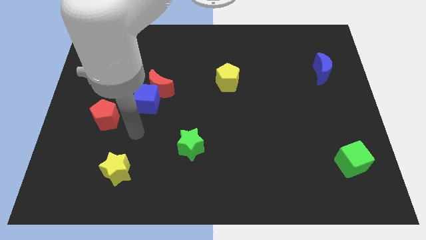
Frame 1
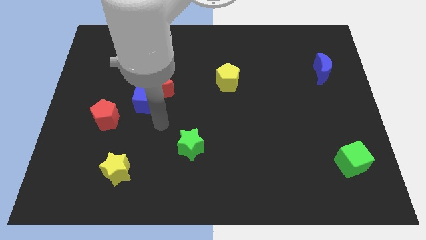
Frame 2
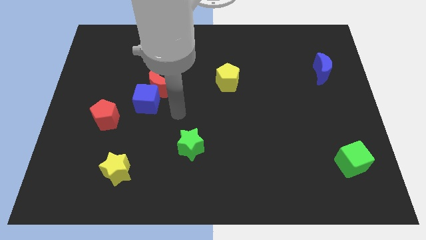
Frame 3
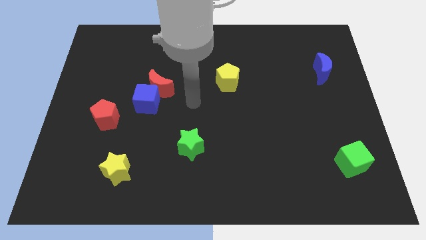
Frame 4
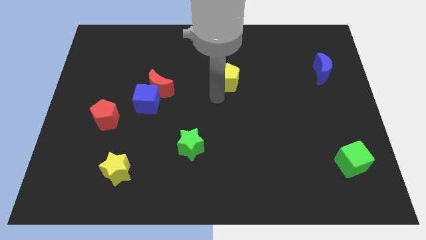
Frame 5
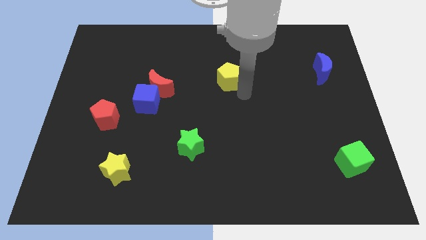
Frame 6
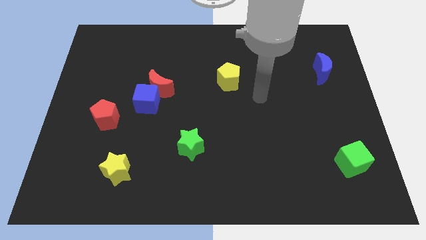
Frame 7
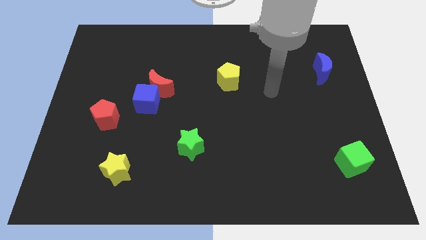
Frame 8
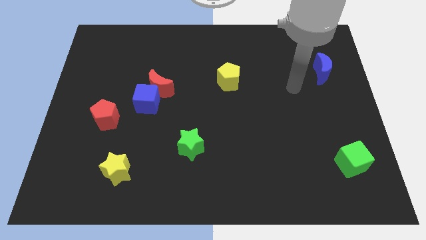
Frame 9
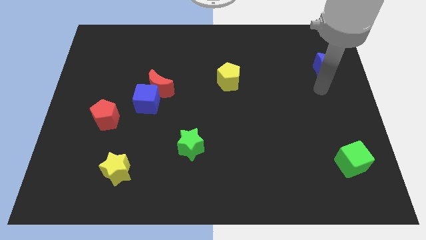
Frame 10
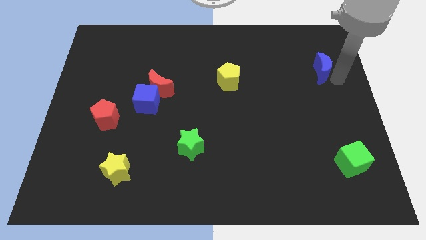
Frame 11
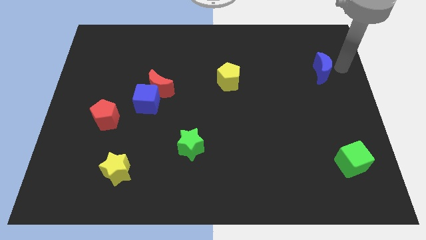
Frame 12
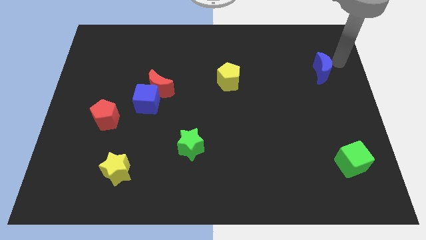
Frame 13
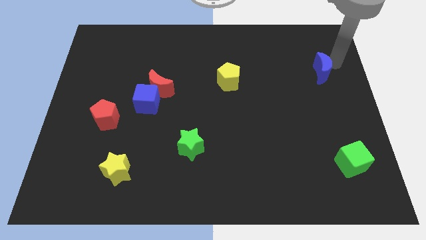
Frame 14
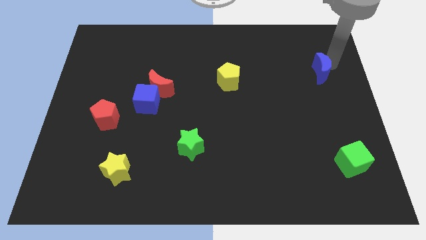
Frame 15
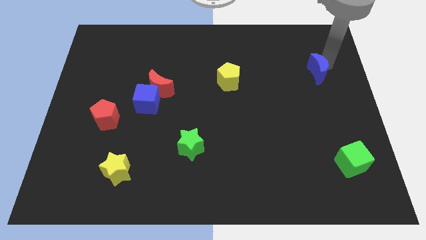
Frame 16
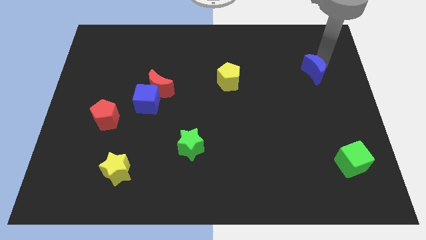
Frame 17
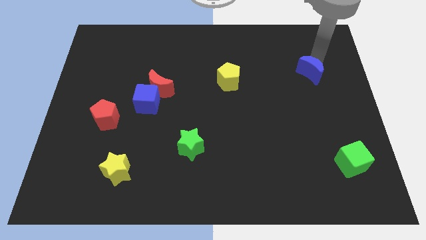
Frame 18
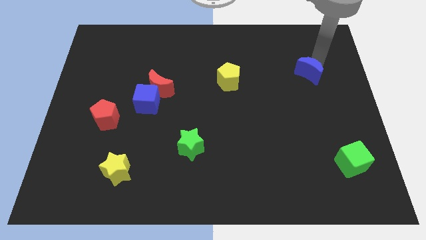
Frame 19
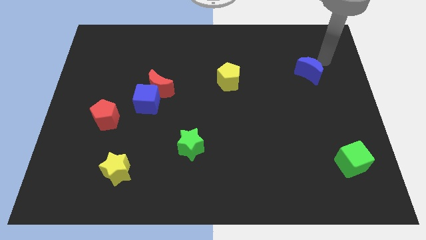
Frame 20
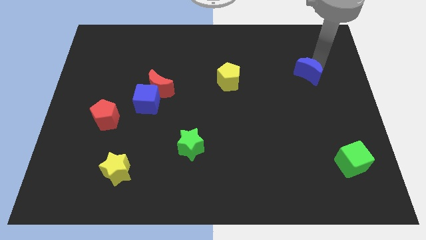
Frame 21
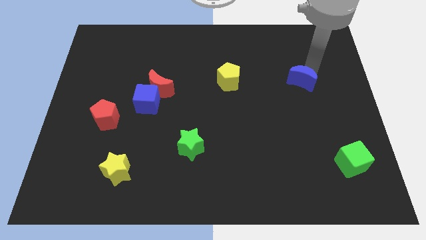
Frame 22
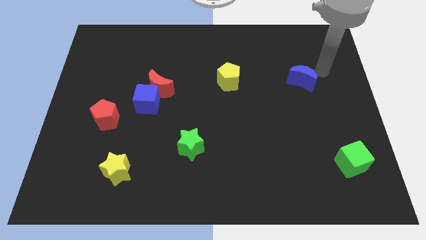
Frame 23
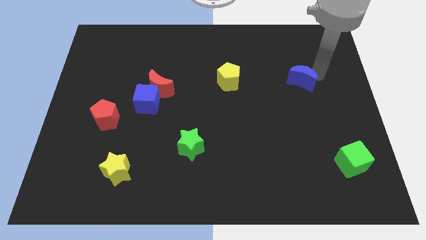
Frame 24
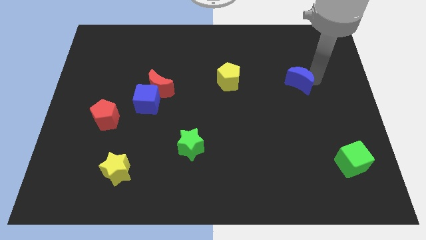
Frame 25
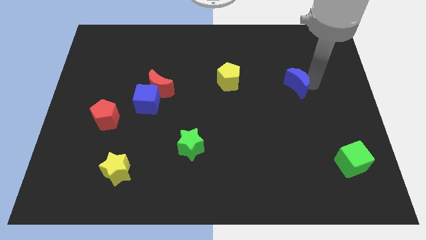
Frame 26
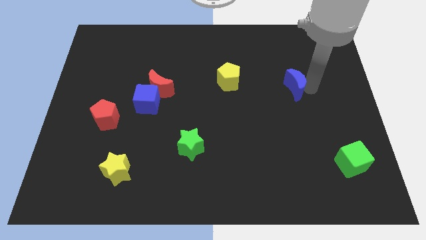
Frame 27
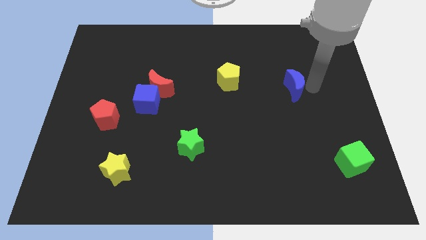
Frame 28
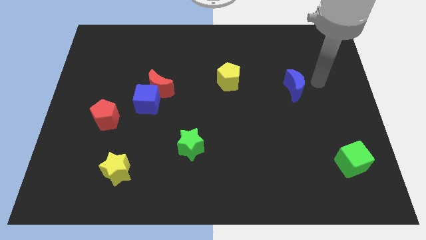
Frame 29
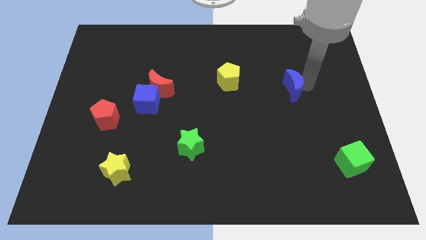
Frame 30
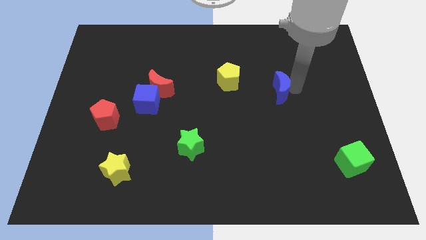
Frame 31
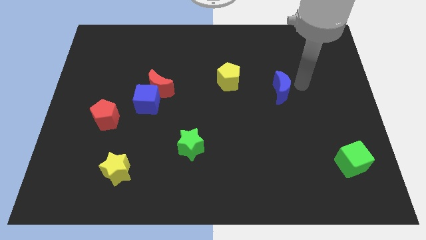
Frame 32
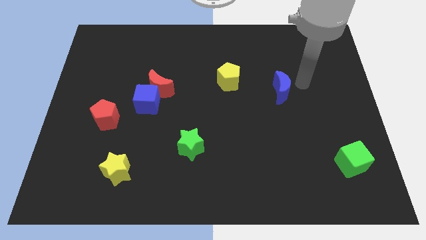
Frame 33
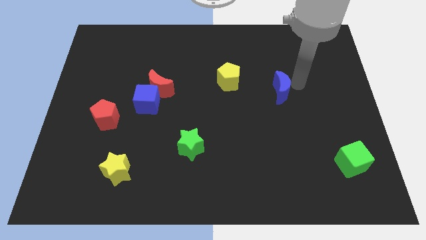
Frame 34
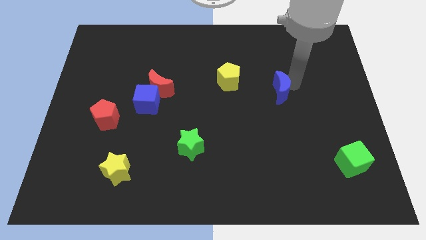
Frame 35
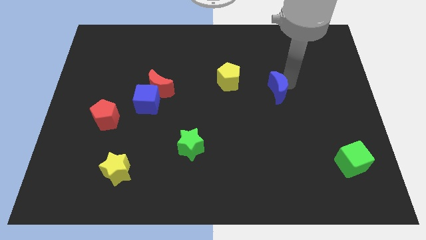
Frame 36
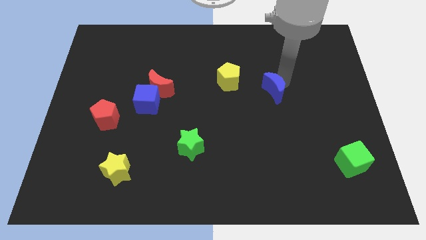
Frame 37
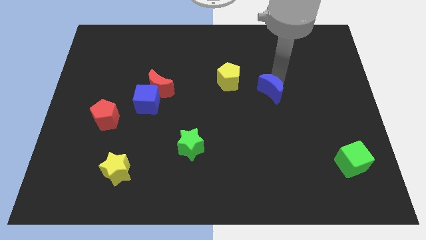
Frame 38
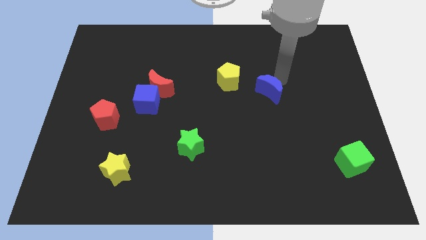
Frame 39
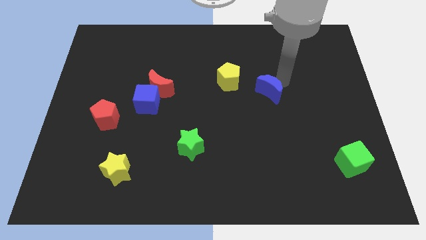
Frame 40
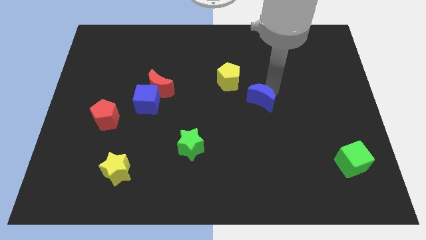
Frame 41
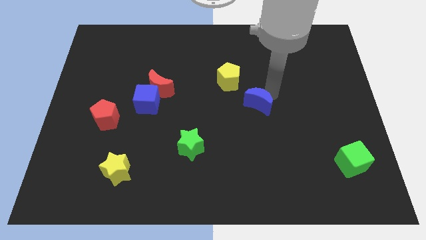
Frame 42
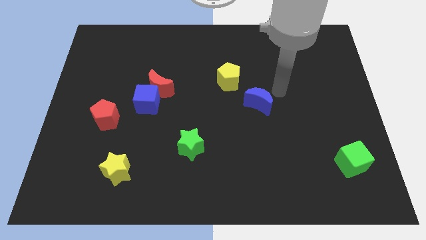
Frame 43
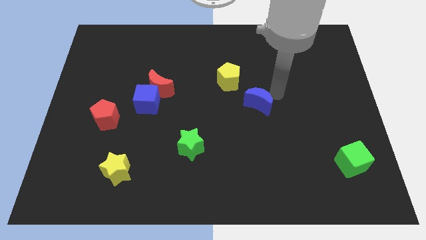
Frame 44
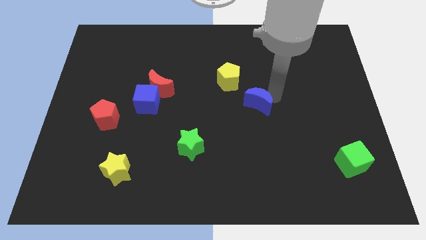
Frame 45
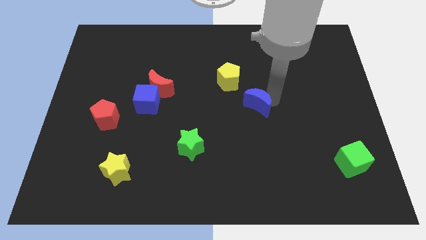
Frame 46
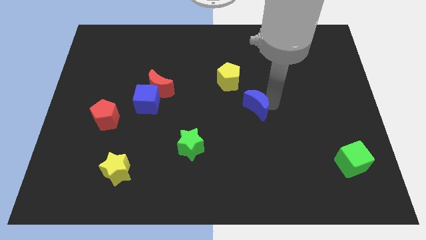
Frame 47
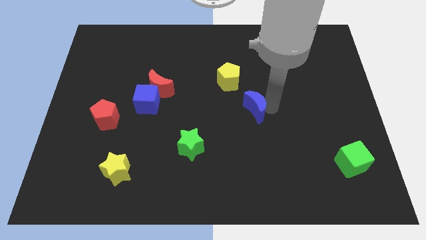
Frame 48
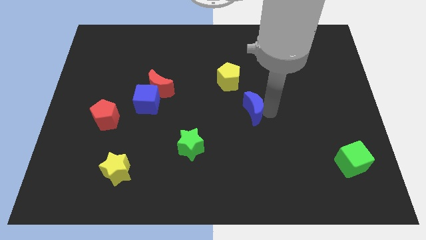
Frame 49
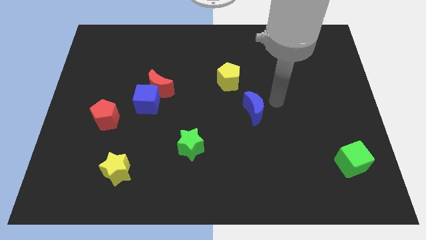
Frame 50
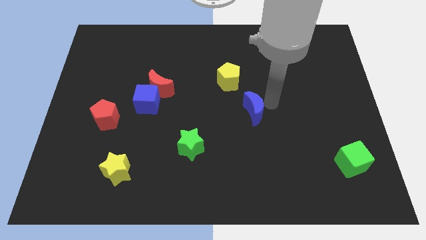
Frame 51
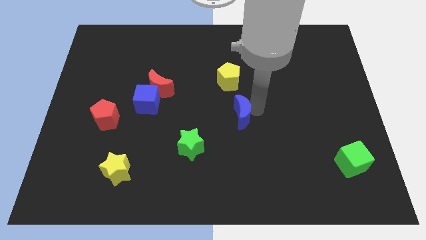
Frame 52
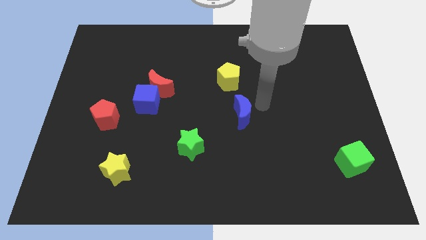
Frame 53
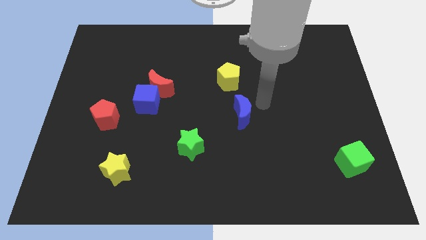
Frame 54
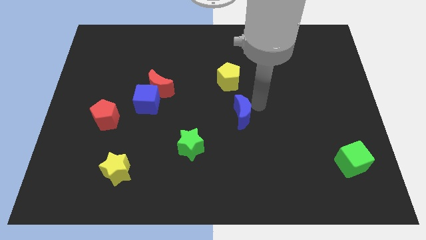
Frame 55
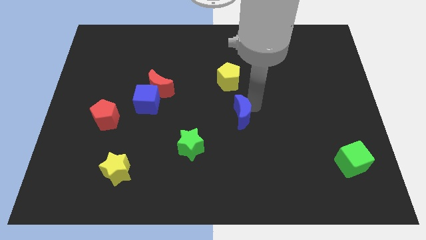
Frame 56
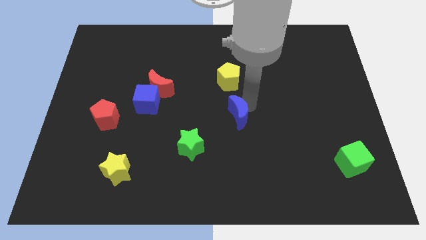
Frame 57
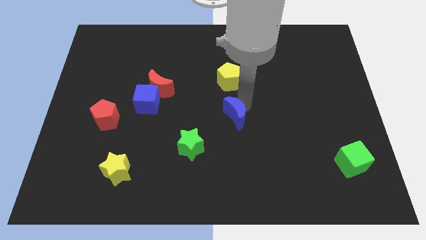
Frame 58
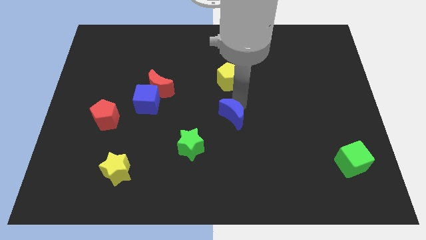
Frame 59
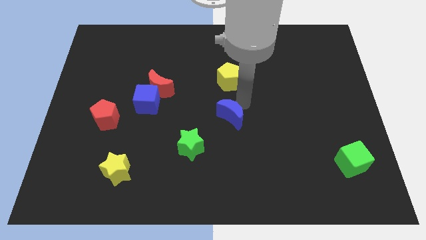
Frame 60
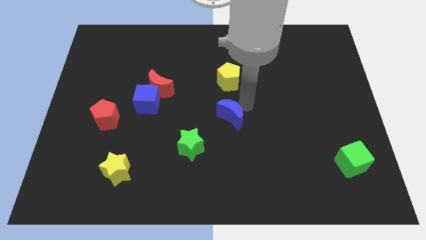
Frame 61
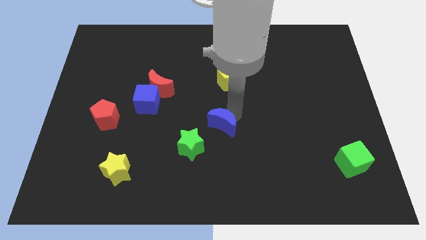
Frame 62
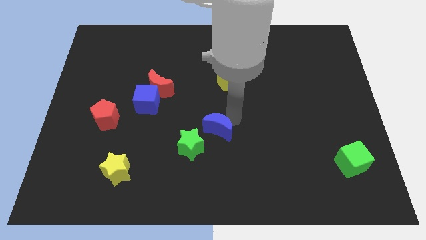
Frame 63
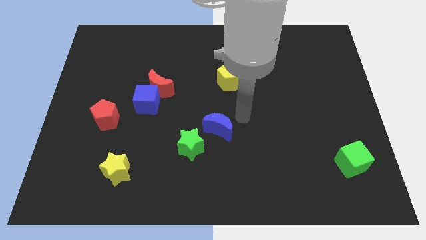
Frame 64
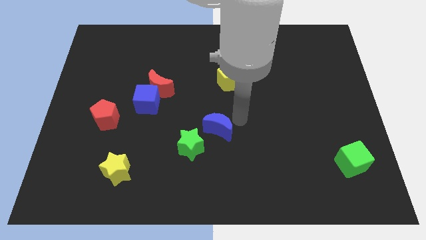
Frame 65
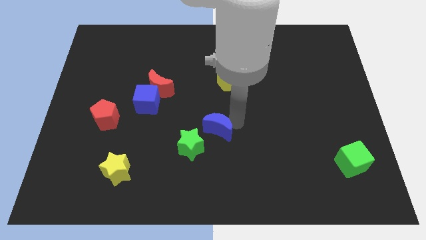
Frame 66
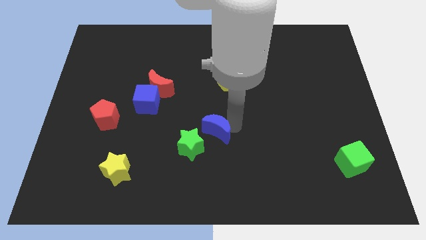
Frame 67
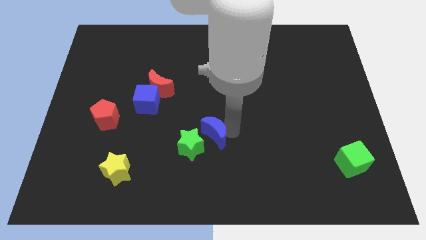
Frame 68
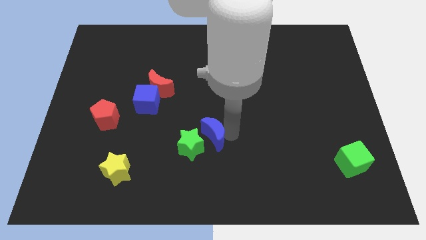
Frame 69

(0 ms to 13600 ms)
slide the blue moon to the green star

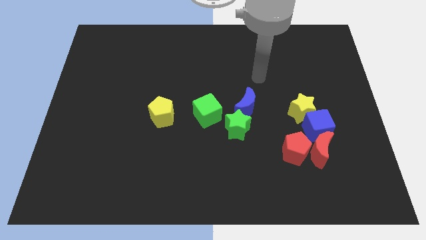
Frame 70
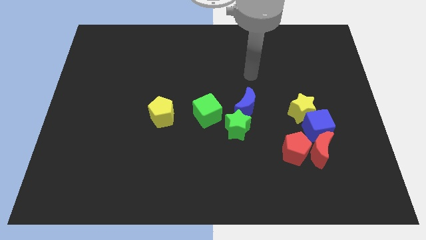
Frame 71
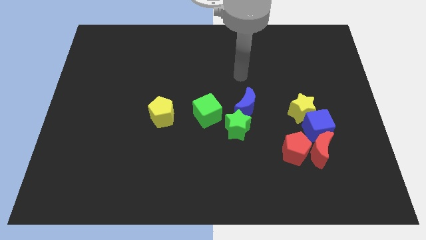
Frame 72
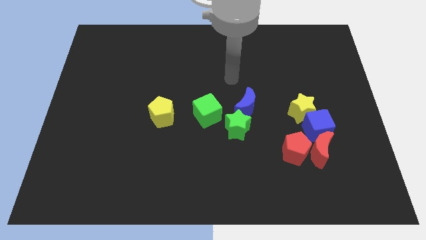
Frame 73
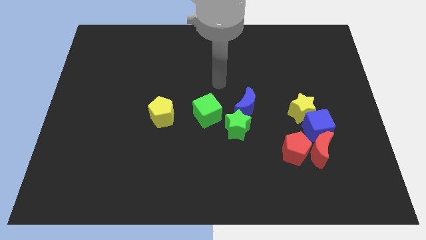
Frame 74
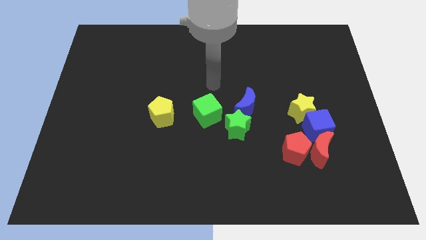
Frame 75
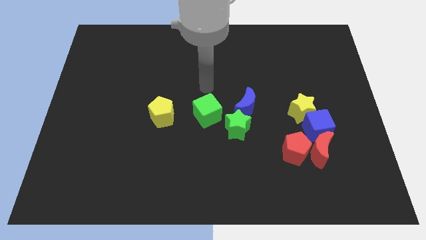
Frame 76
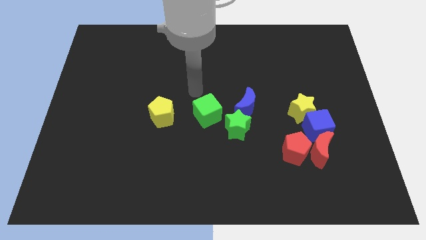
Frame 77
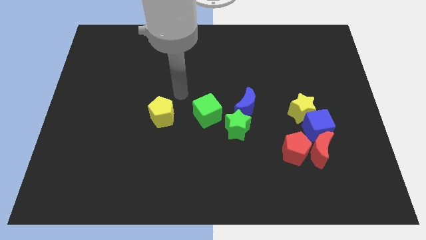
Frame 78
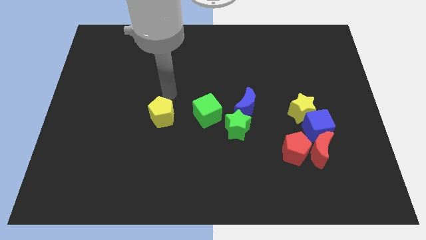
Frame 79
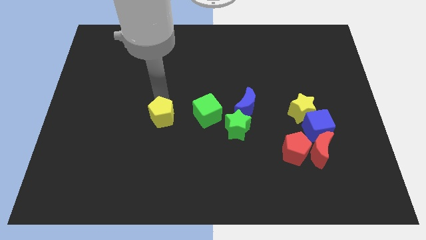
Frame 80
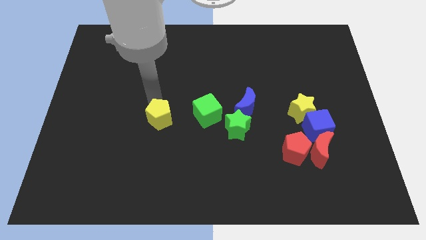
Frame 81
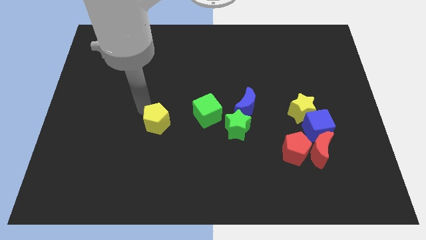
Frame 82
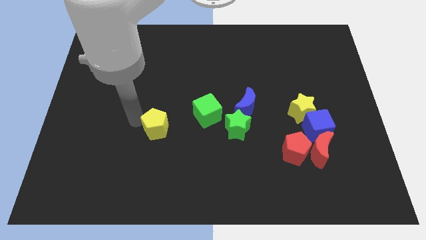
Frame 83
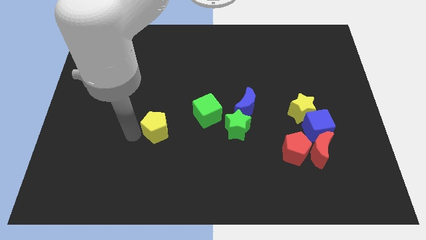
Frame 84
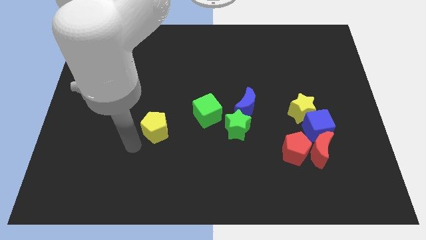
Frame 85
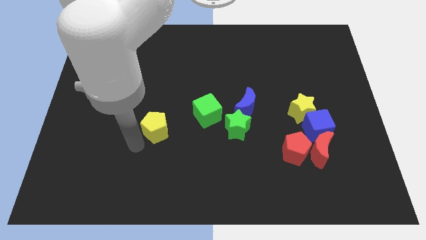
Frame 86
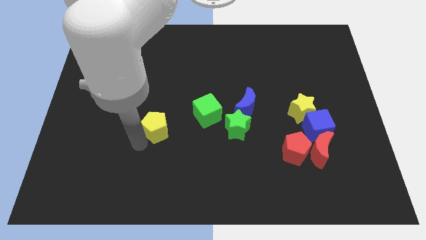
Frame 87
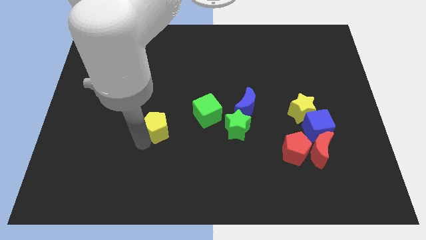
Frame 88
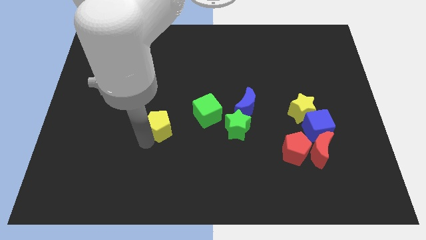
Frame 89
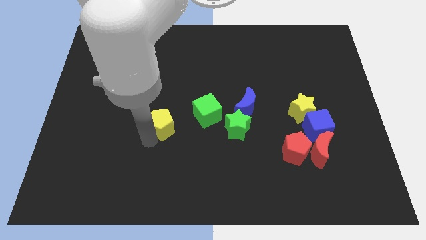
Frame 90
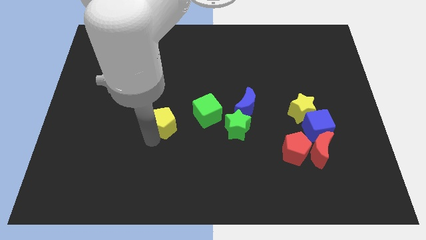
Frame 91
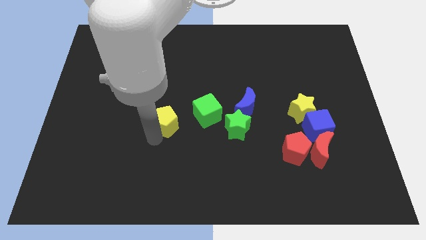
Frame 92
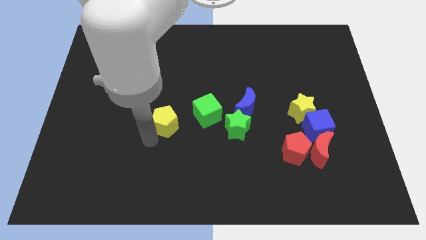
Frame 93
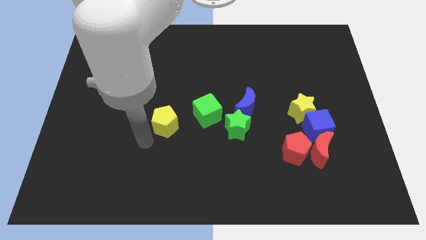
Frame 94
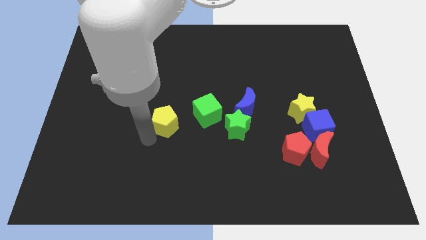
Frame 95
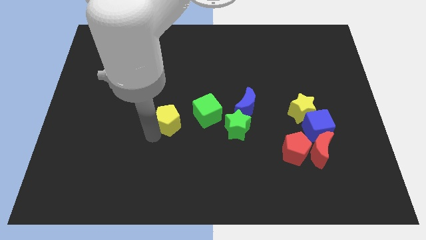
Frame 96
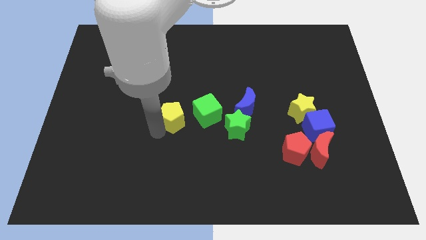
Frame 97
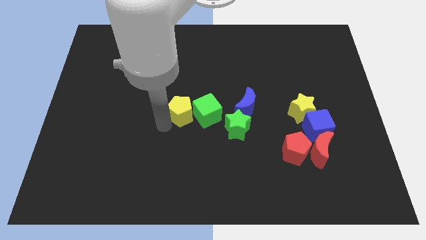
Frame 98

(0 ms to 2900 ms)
move the yellow pentagon next to the green cube
